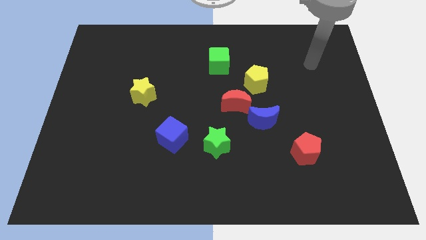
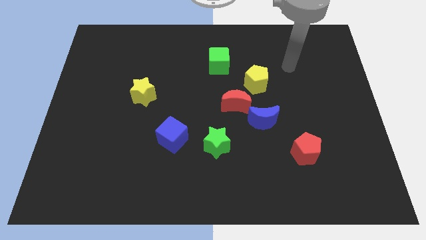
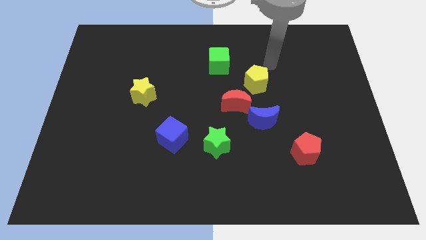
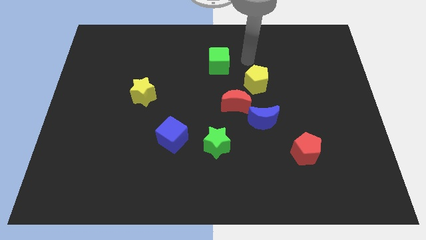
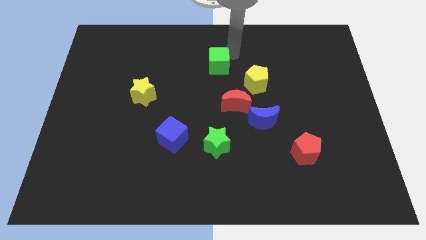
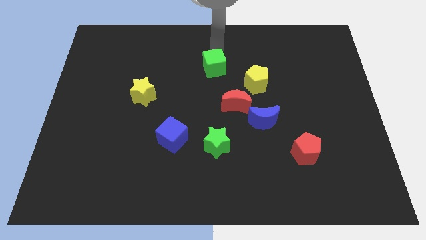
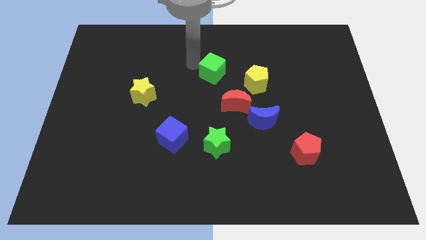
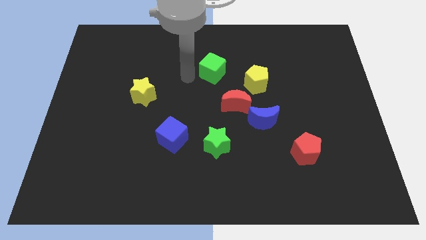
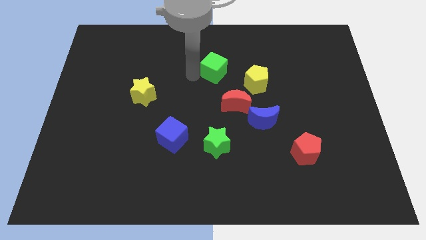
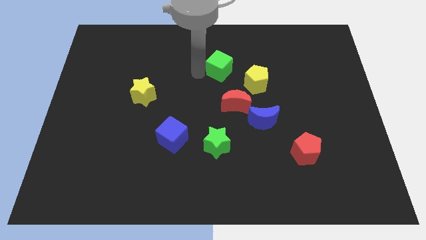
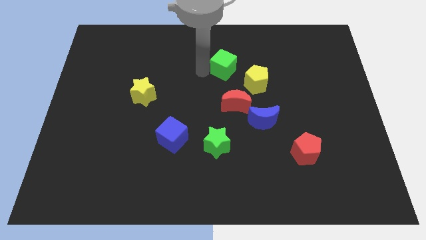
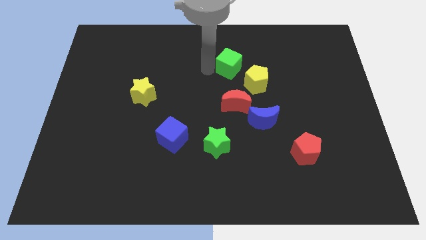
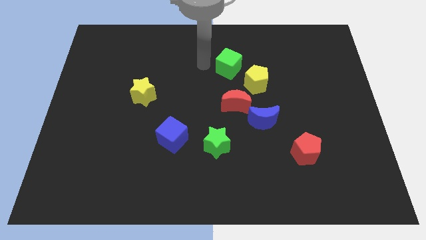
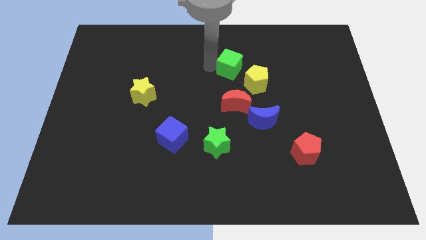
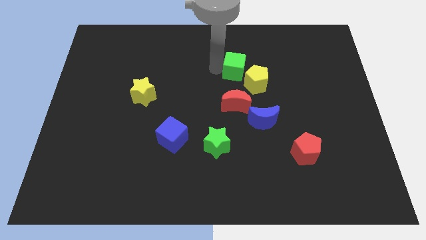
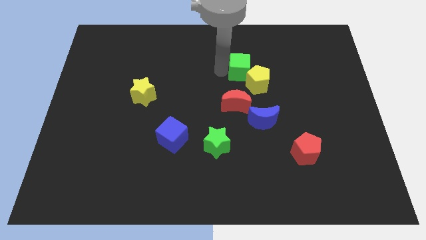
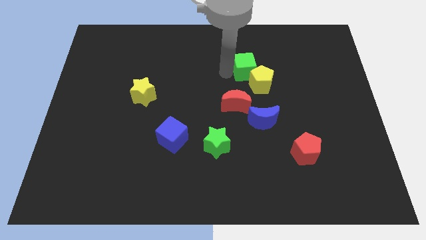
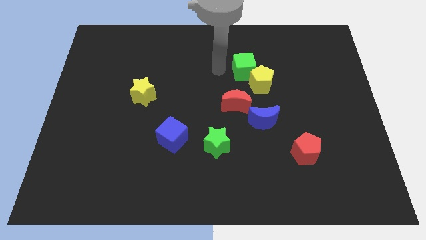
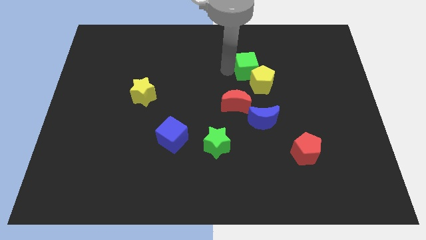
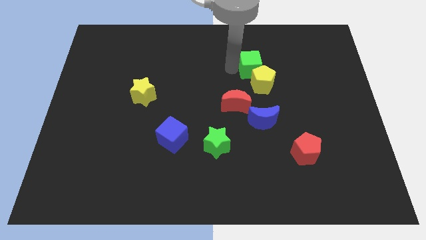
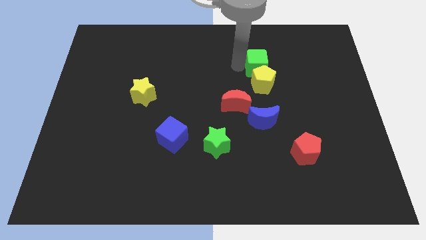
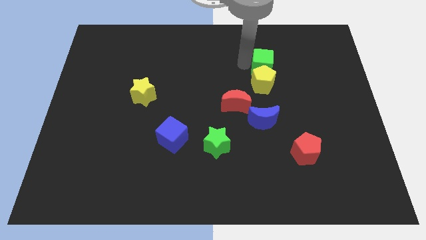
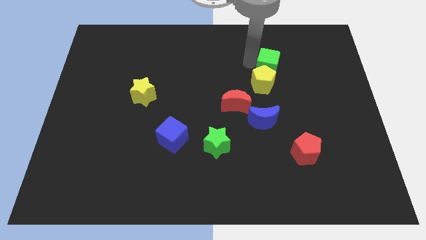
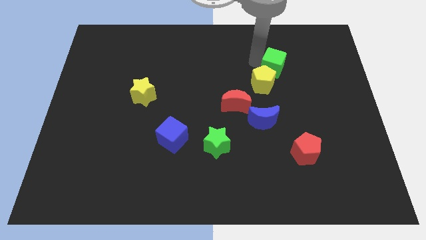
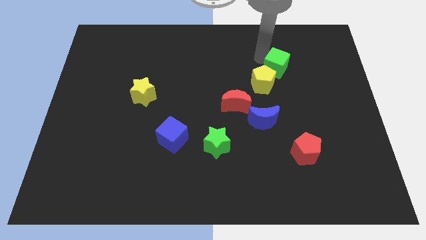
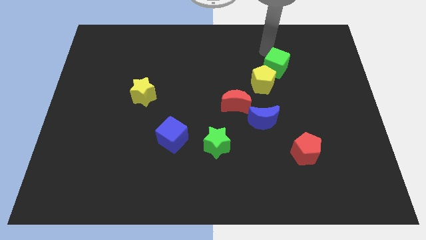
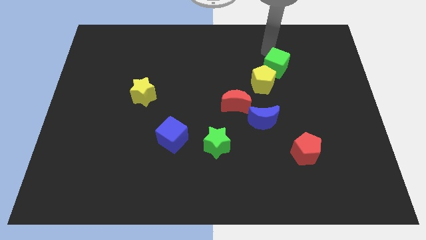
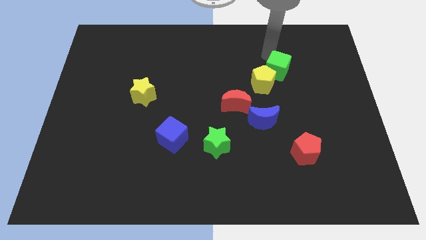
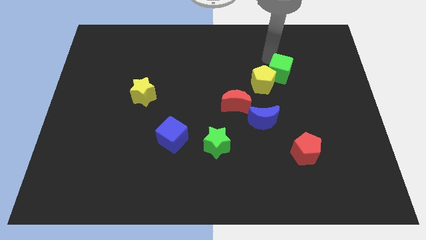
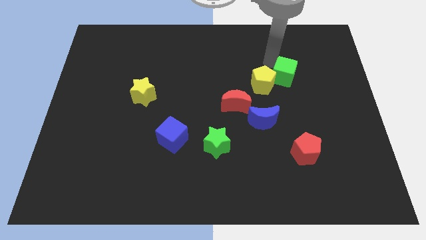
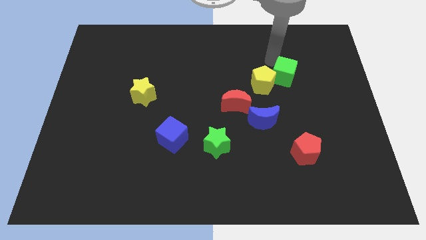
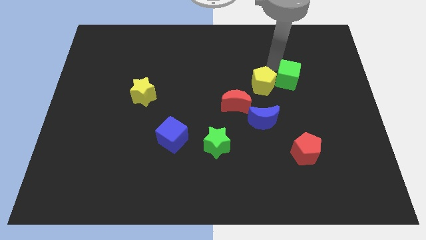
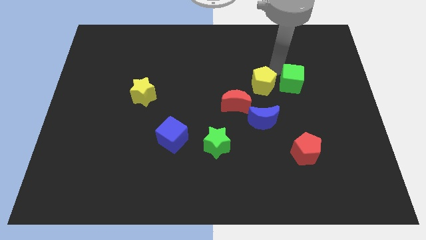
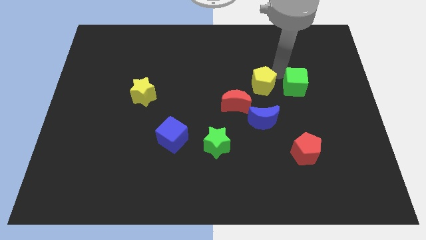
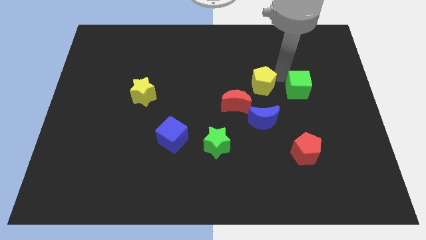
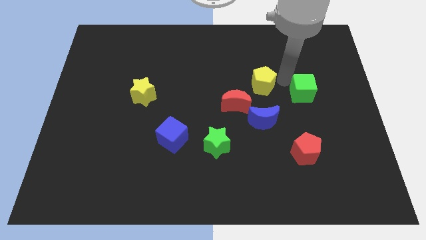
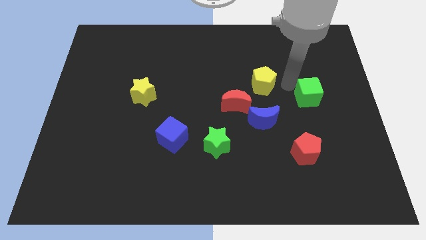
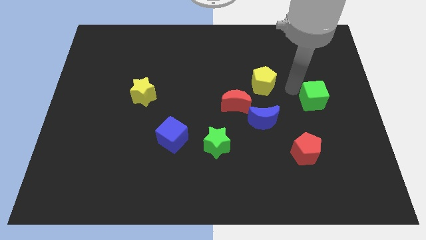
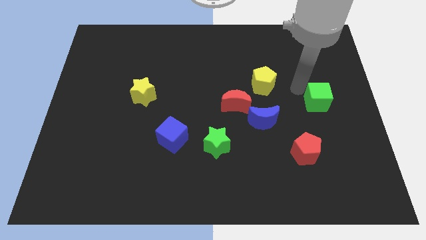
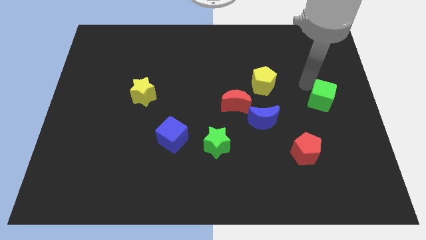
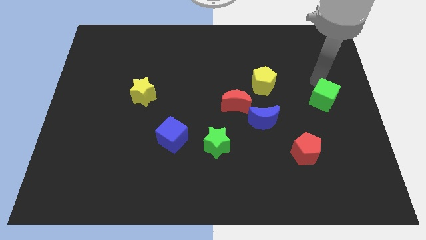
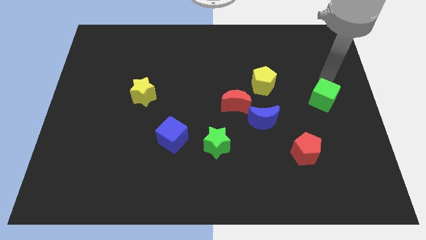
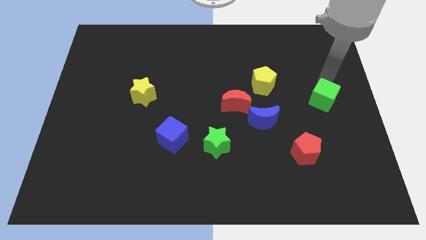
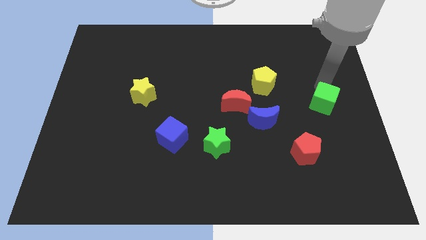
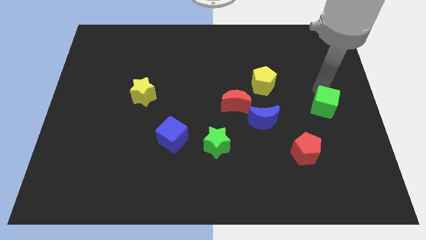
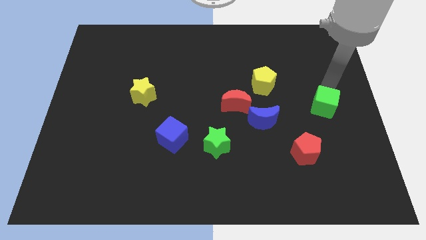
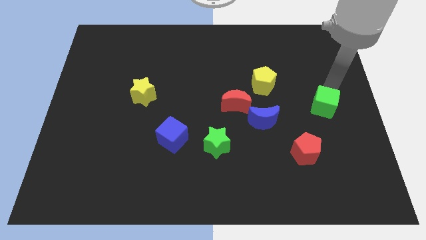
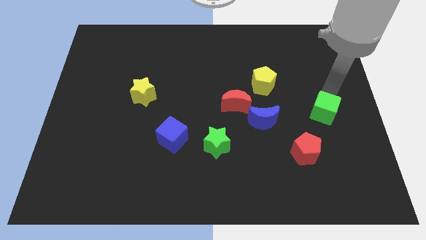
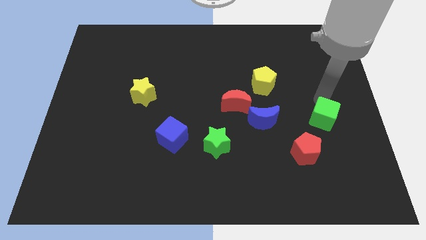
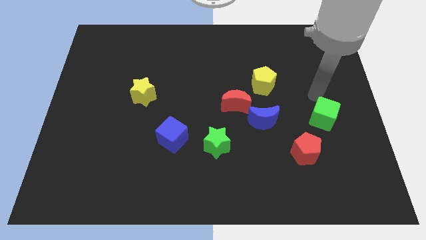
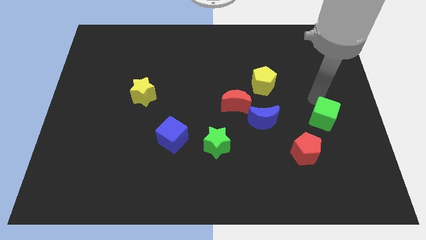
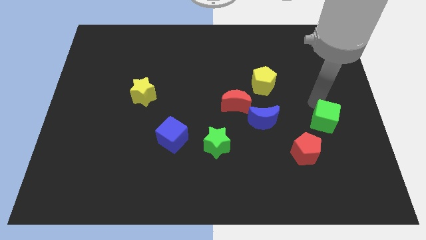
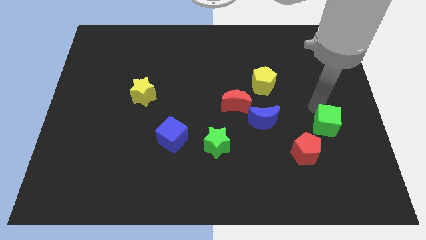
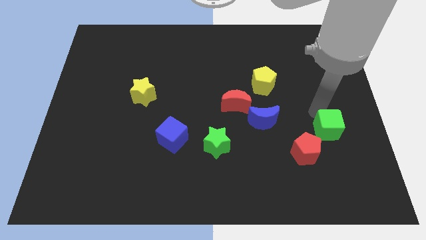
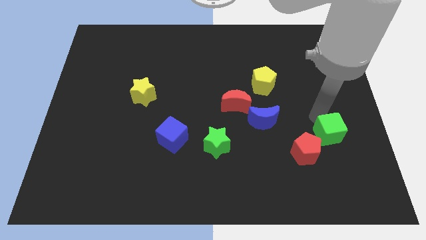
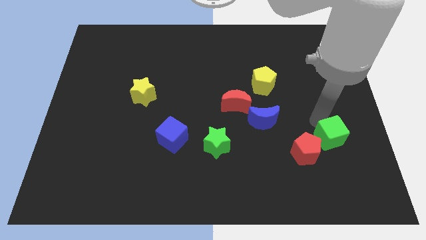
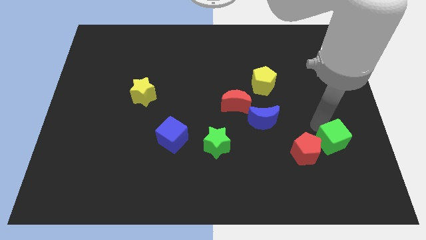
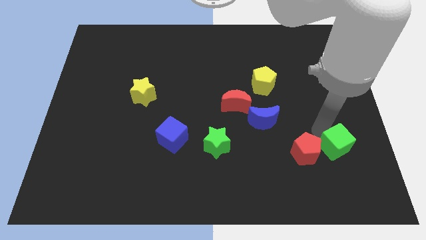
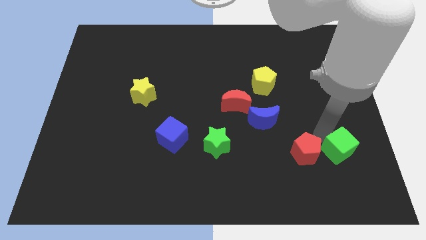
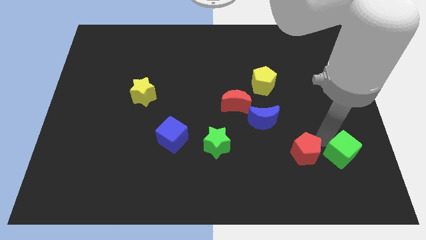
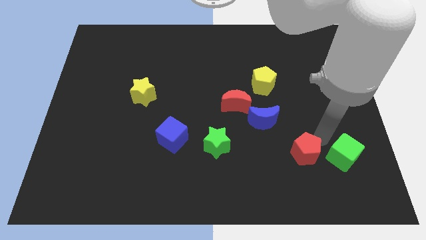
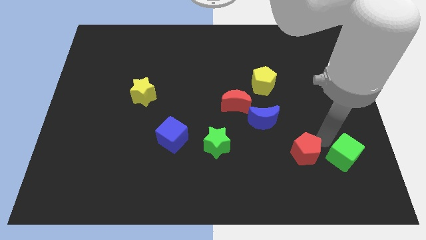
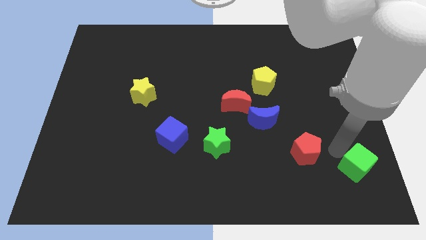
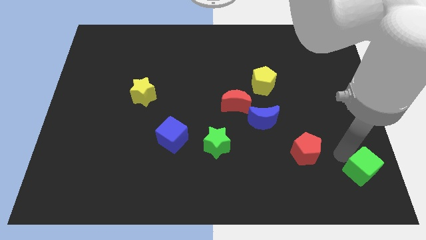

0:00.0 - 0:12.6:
move the green cube to the bottom right

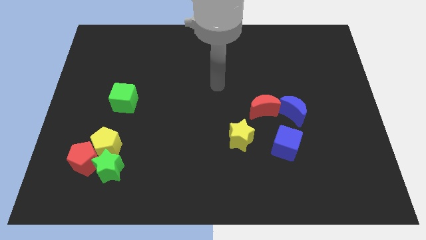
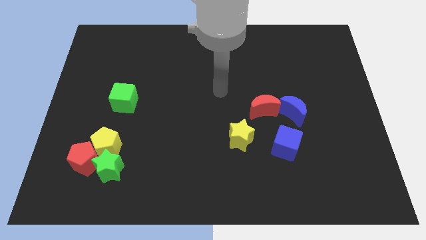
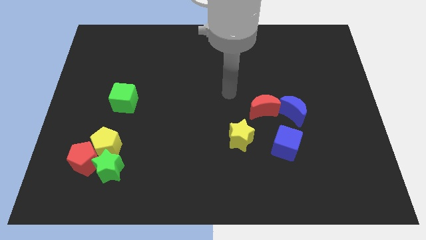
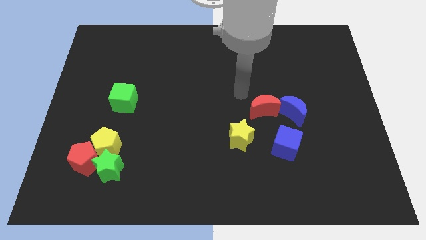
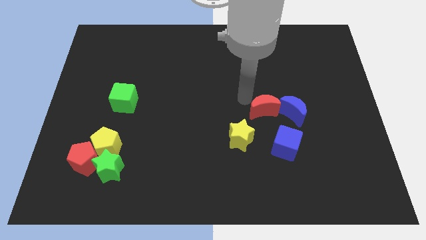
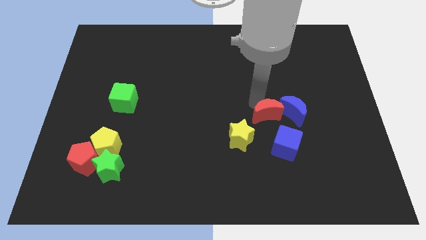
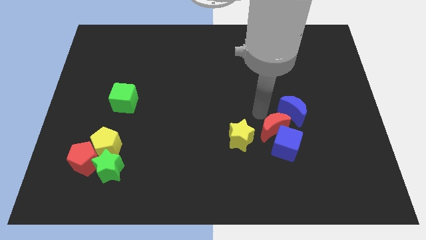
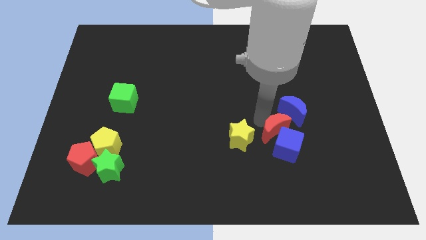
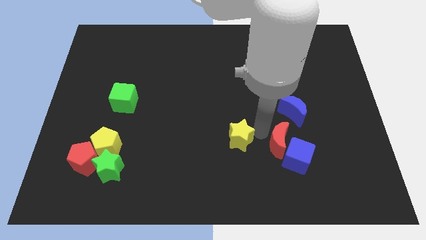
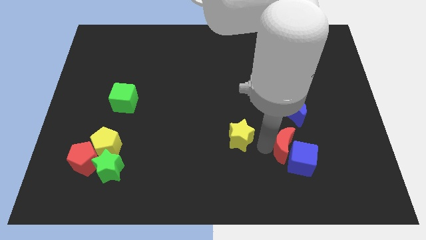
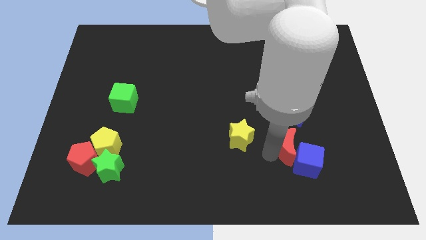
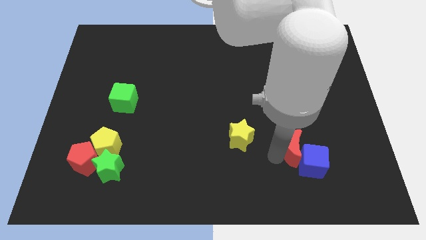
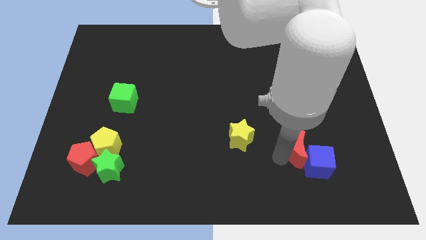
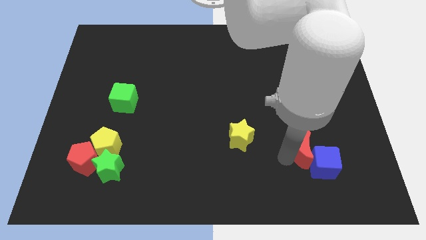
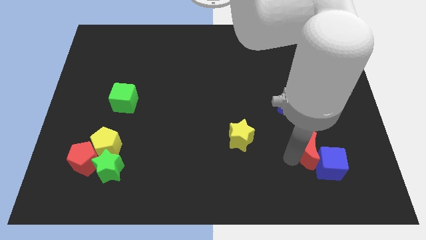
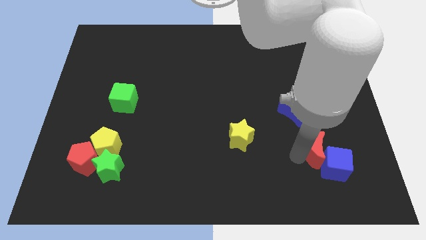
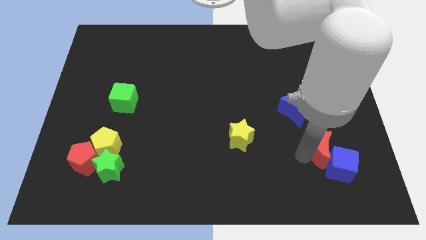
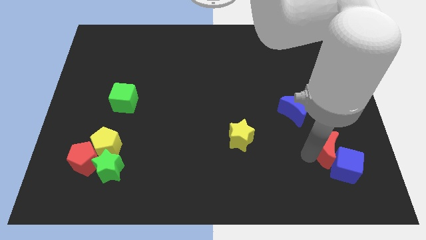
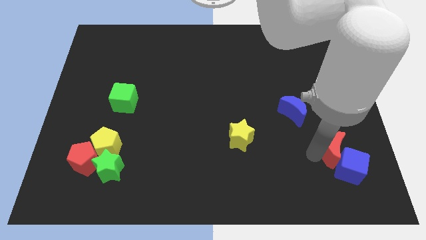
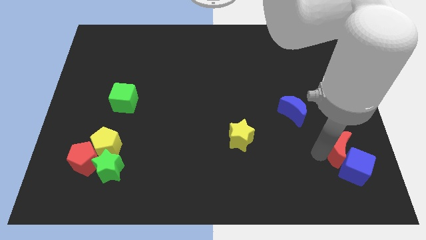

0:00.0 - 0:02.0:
move the blue cube to the bottom right
